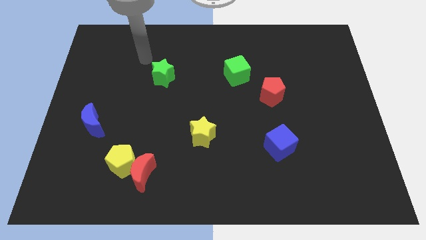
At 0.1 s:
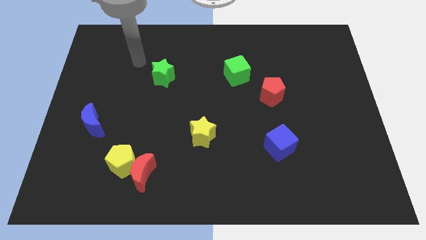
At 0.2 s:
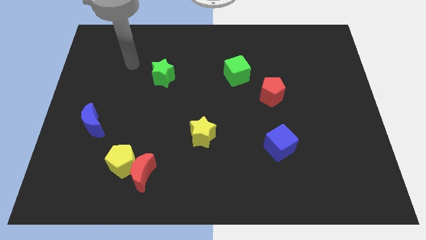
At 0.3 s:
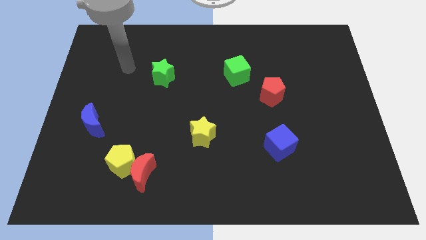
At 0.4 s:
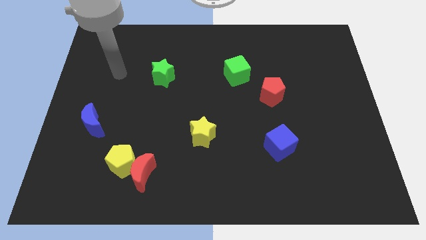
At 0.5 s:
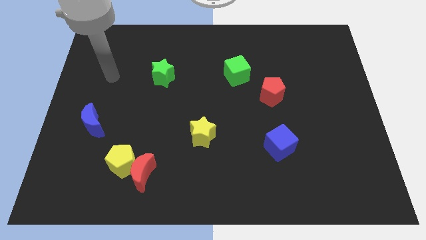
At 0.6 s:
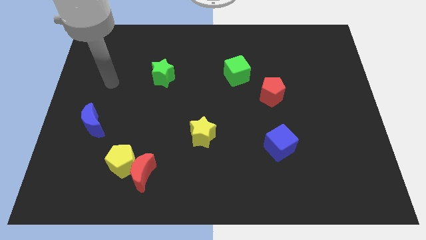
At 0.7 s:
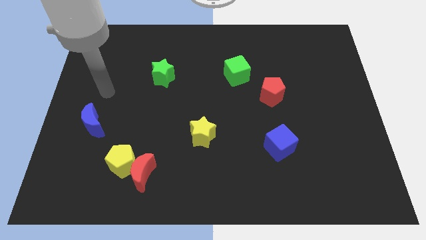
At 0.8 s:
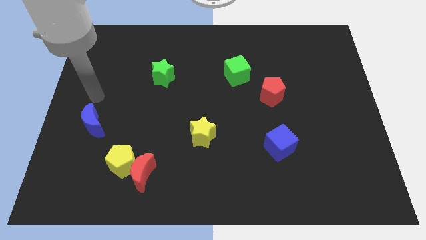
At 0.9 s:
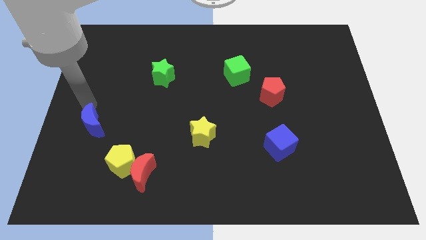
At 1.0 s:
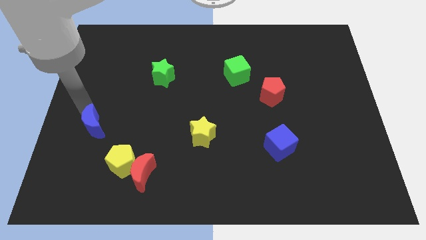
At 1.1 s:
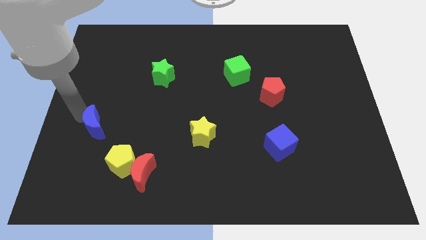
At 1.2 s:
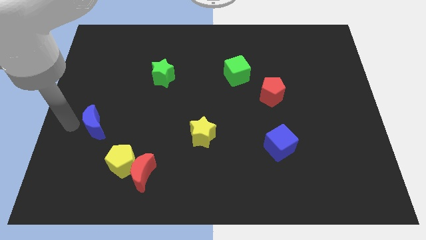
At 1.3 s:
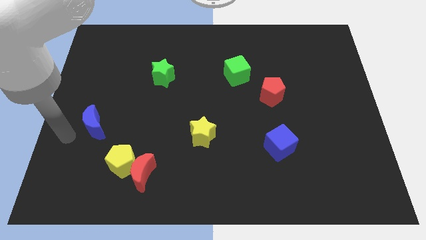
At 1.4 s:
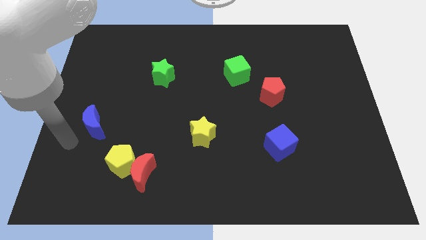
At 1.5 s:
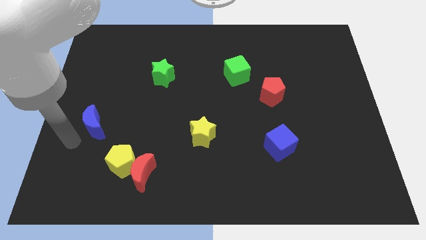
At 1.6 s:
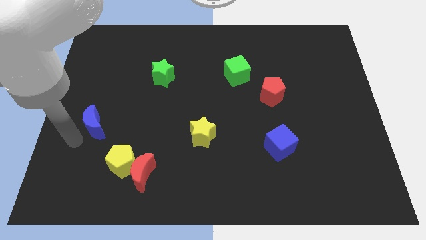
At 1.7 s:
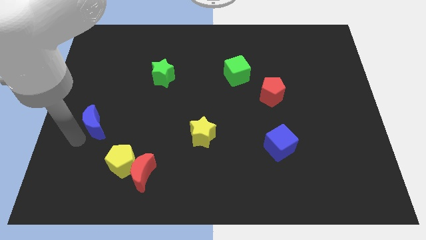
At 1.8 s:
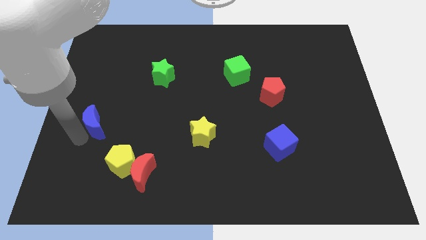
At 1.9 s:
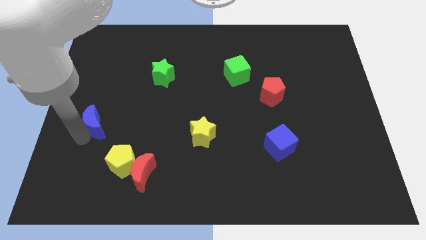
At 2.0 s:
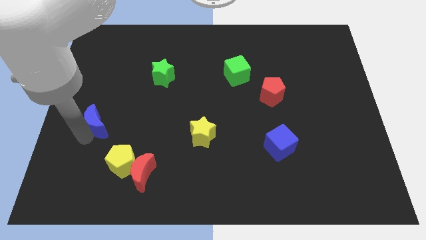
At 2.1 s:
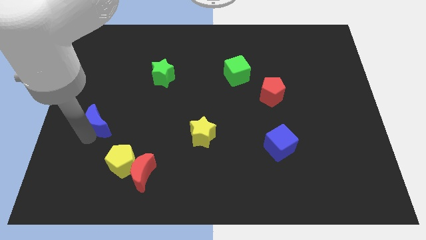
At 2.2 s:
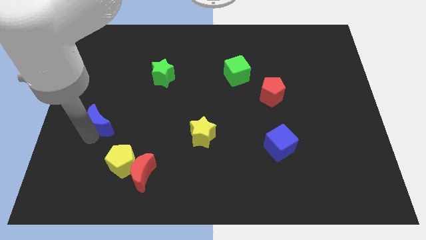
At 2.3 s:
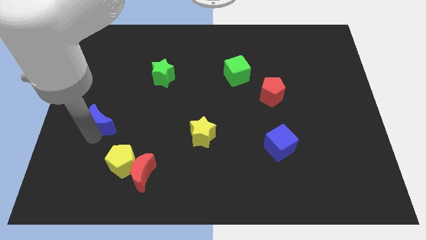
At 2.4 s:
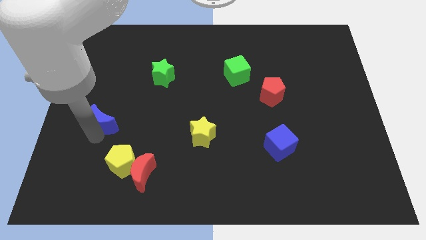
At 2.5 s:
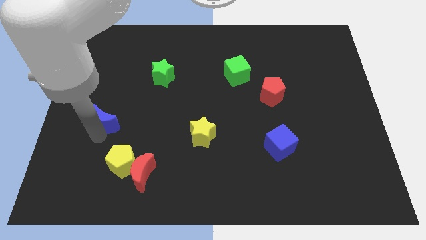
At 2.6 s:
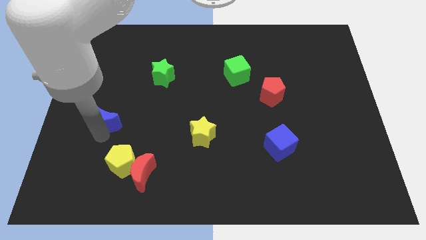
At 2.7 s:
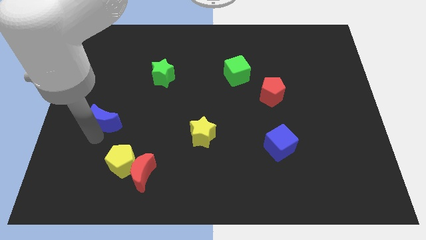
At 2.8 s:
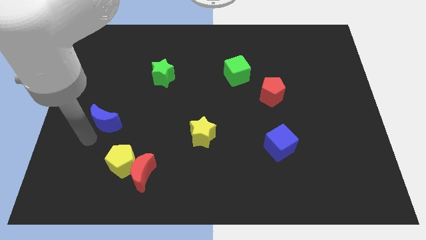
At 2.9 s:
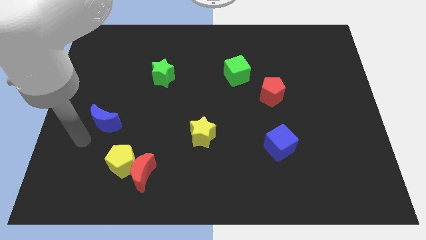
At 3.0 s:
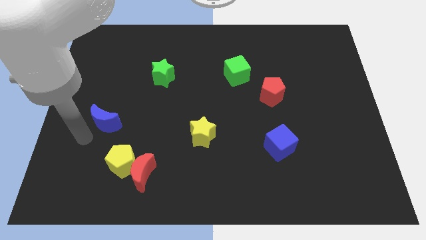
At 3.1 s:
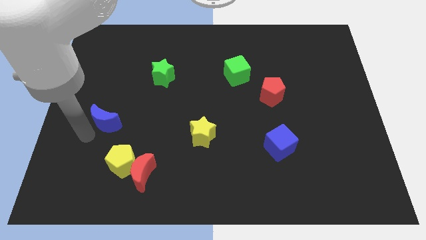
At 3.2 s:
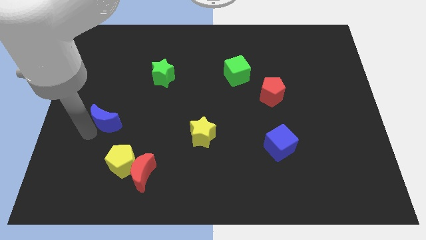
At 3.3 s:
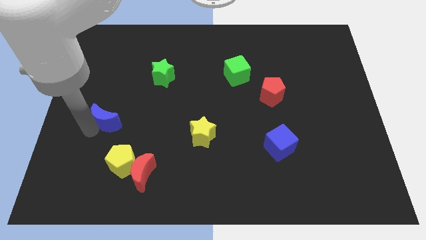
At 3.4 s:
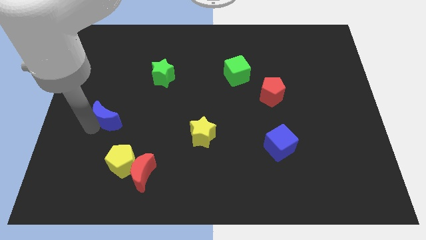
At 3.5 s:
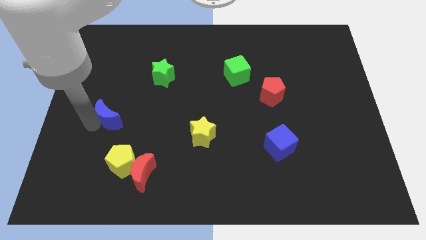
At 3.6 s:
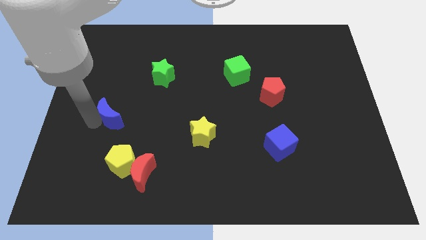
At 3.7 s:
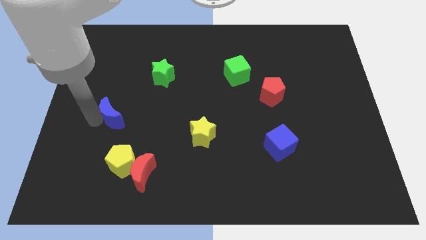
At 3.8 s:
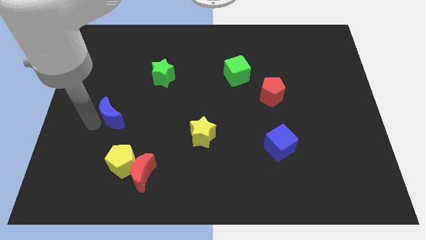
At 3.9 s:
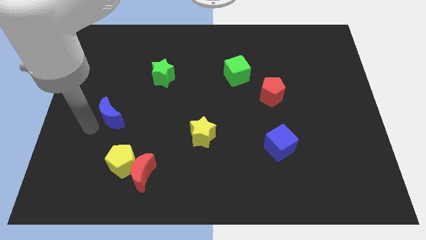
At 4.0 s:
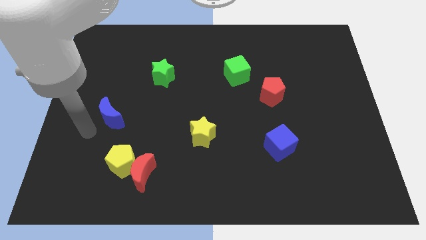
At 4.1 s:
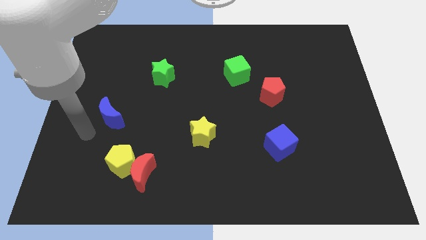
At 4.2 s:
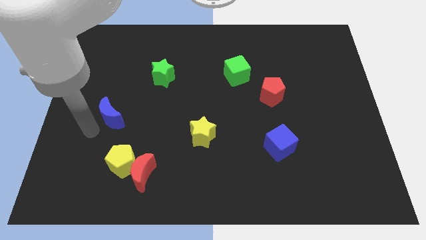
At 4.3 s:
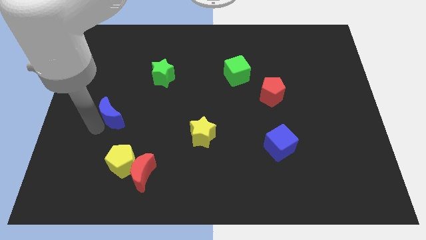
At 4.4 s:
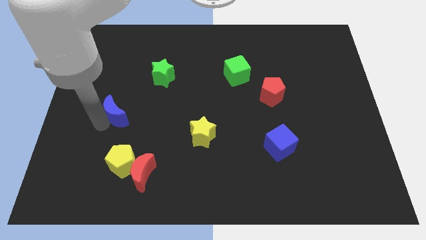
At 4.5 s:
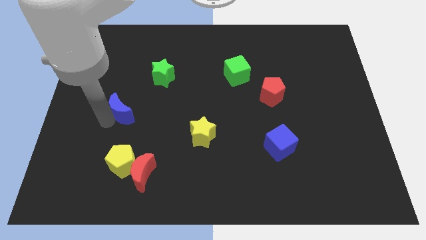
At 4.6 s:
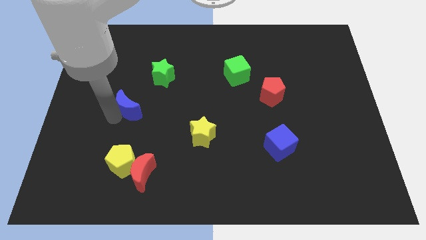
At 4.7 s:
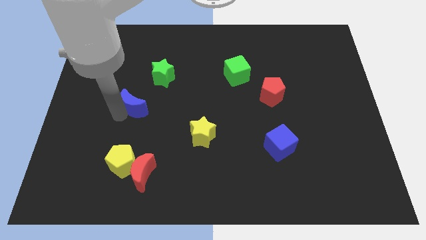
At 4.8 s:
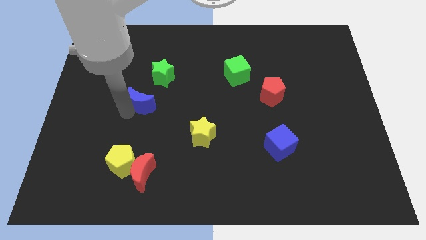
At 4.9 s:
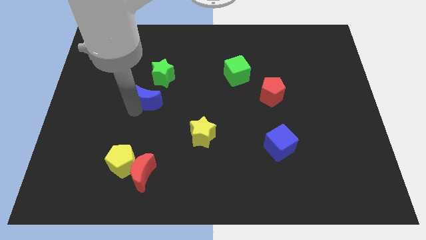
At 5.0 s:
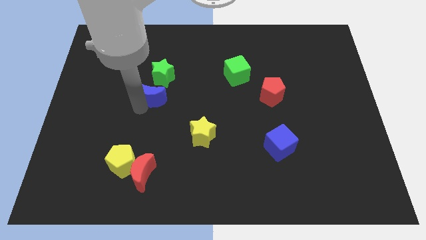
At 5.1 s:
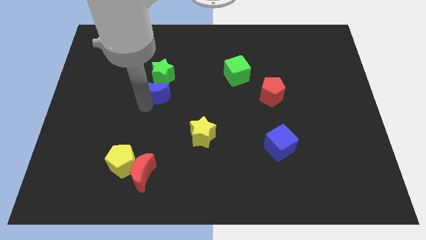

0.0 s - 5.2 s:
slide the blue moon next to the green star

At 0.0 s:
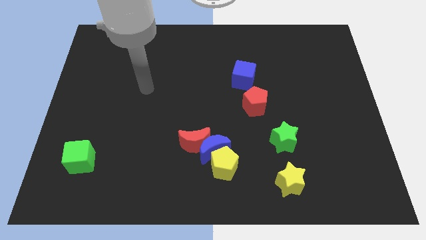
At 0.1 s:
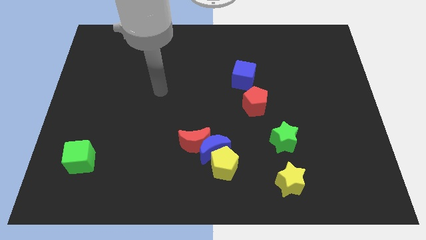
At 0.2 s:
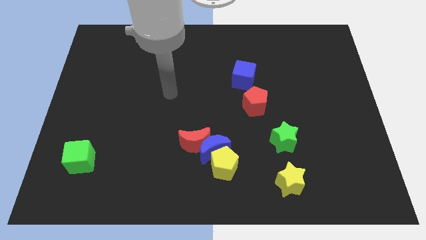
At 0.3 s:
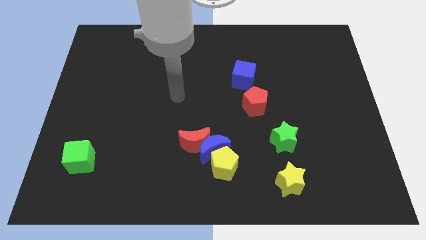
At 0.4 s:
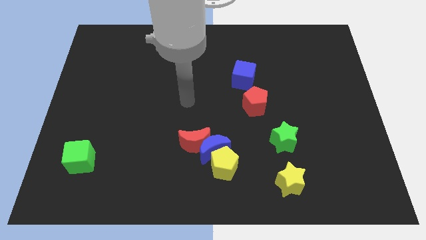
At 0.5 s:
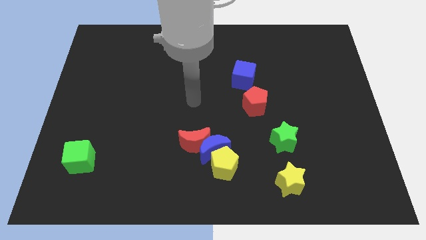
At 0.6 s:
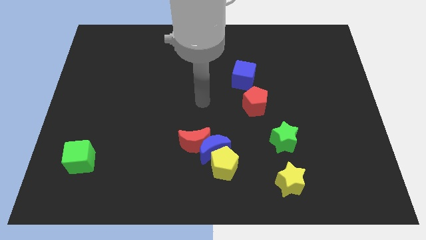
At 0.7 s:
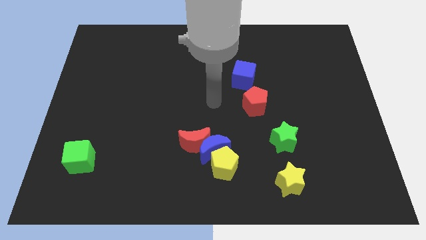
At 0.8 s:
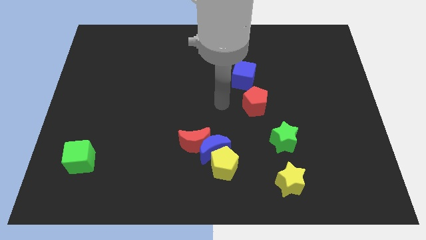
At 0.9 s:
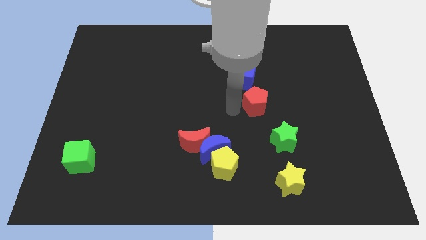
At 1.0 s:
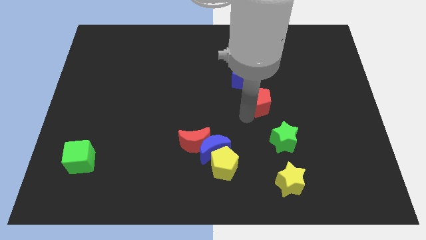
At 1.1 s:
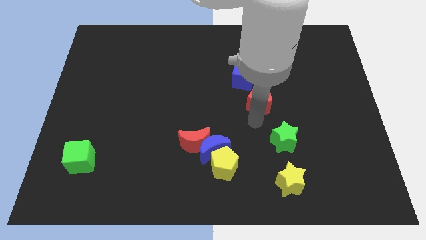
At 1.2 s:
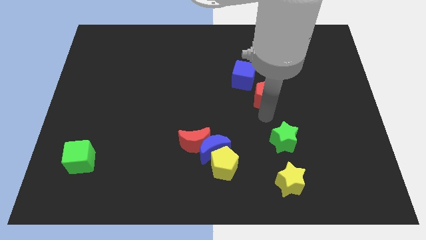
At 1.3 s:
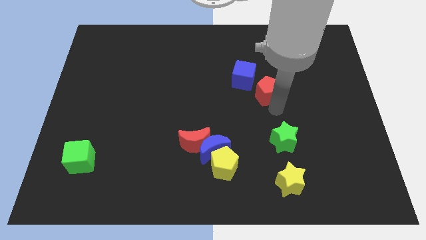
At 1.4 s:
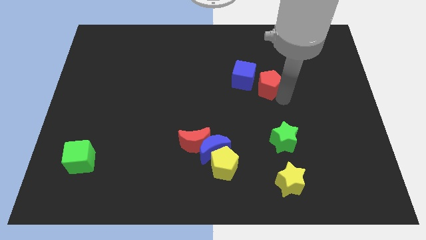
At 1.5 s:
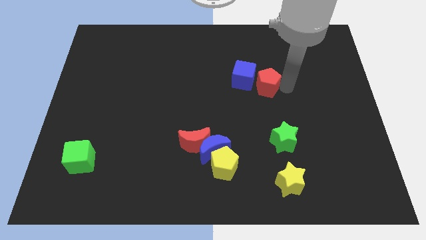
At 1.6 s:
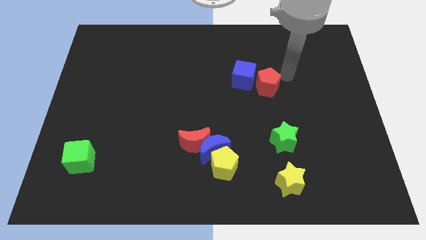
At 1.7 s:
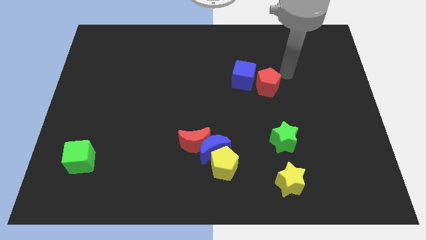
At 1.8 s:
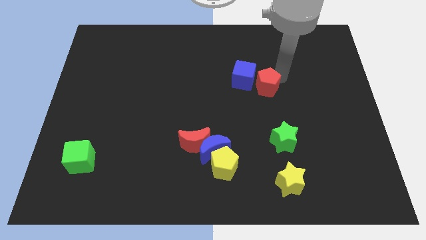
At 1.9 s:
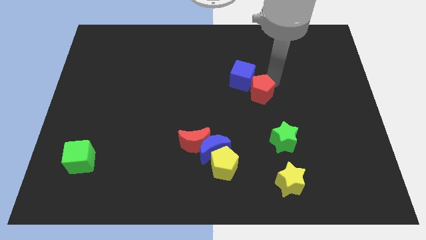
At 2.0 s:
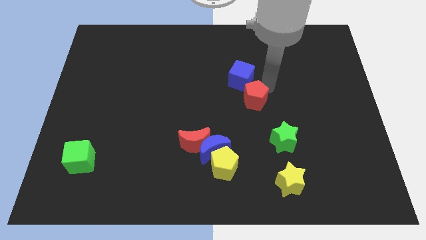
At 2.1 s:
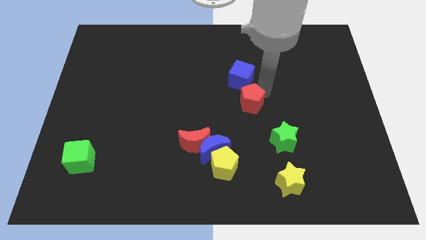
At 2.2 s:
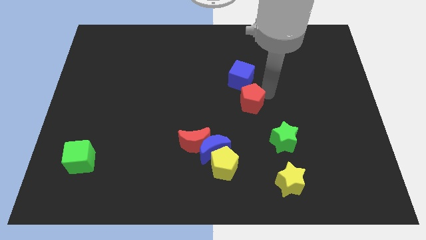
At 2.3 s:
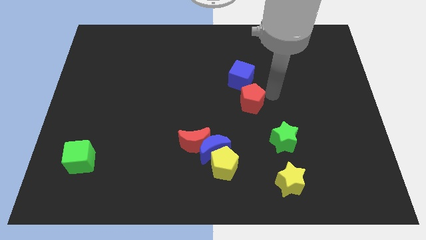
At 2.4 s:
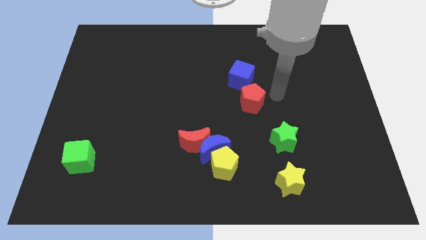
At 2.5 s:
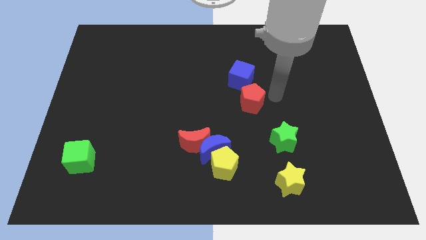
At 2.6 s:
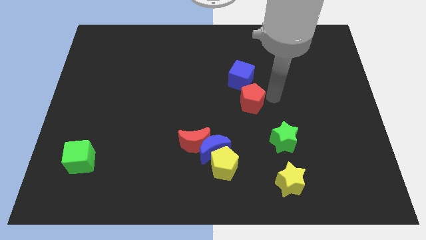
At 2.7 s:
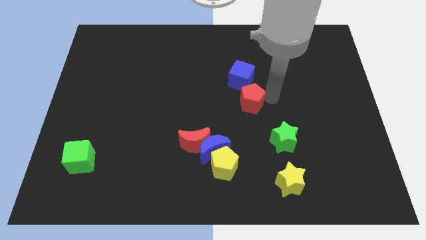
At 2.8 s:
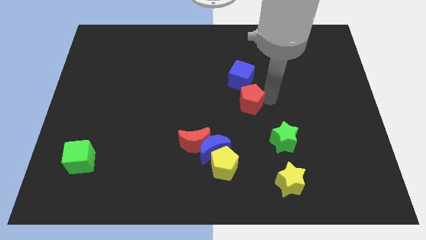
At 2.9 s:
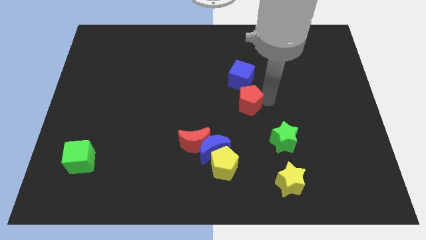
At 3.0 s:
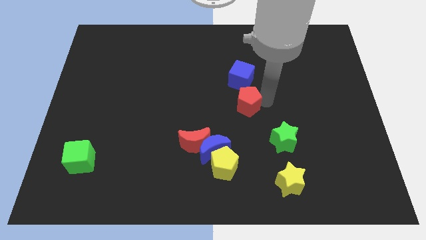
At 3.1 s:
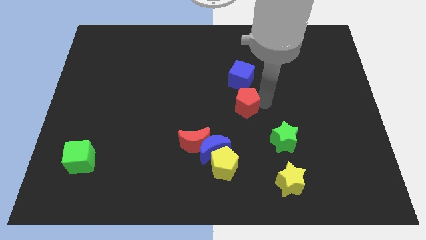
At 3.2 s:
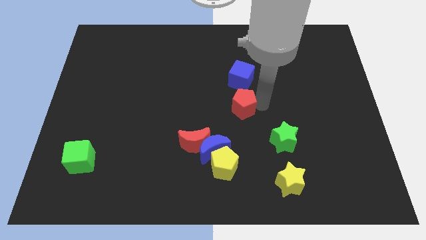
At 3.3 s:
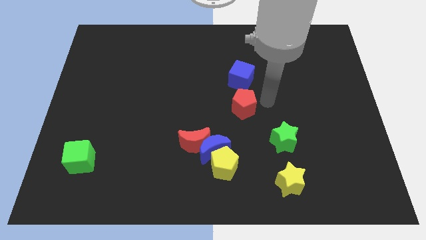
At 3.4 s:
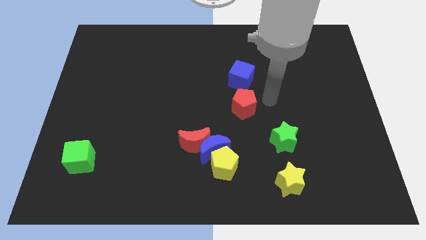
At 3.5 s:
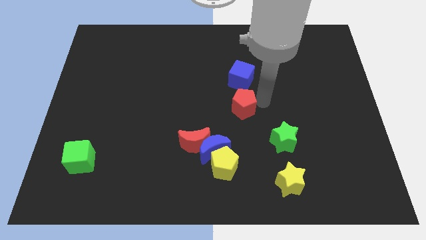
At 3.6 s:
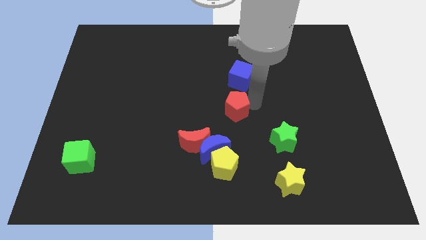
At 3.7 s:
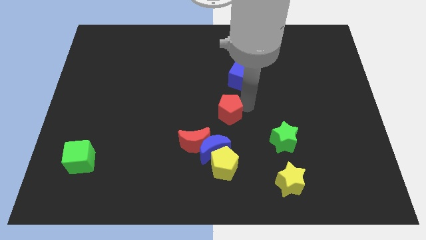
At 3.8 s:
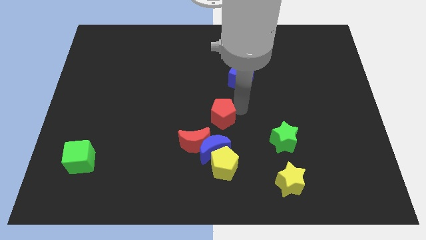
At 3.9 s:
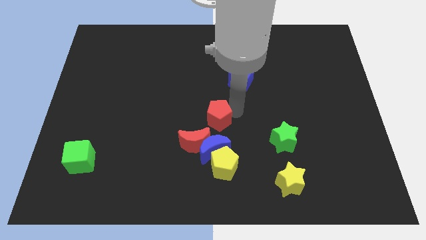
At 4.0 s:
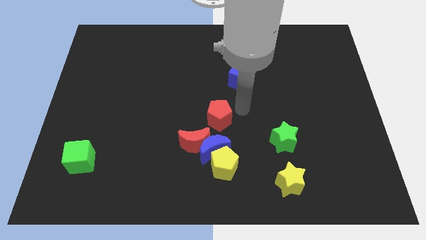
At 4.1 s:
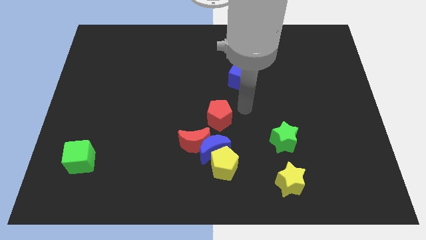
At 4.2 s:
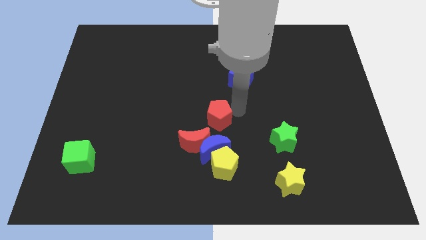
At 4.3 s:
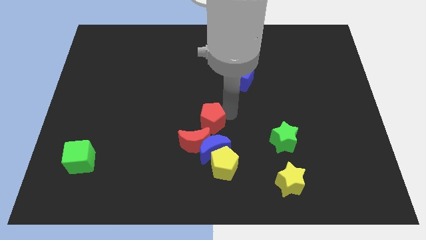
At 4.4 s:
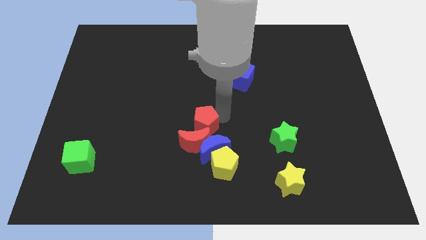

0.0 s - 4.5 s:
push the red pentagon next to the red moon
